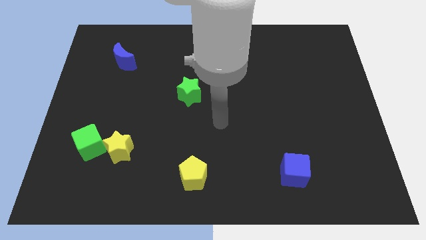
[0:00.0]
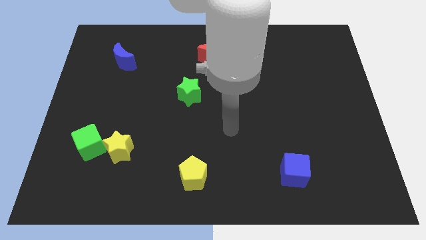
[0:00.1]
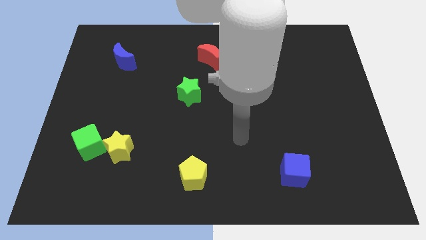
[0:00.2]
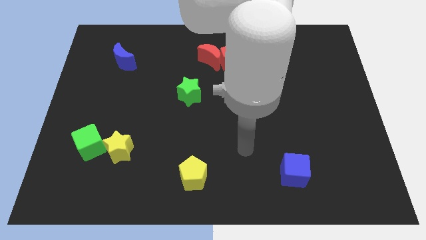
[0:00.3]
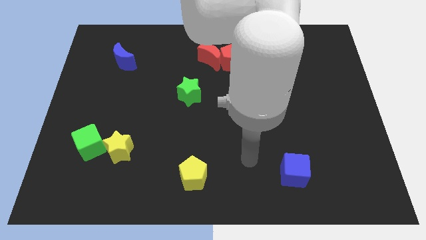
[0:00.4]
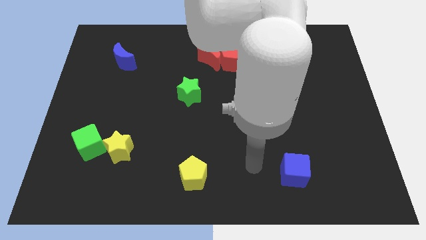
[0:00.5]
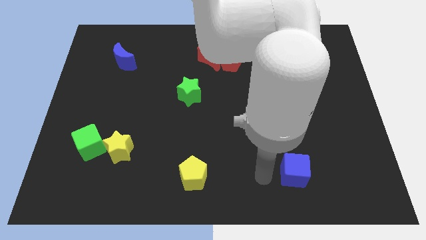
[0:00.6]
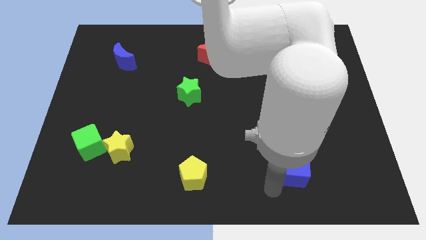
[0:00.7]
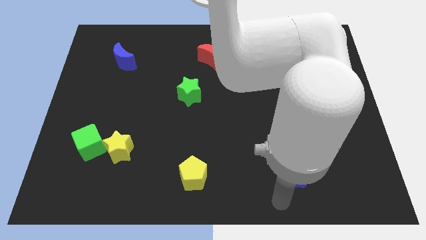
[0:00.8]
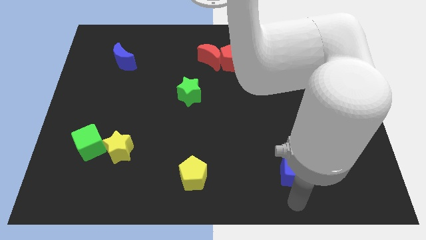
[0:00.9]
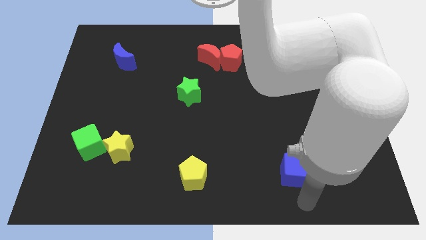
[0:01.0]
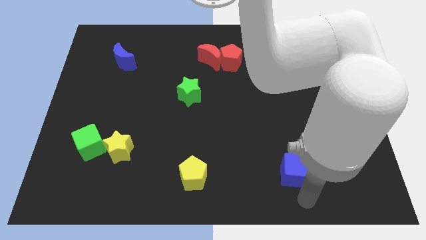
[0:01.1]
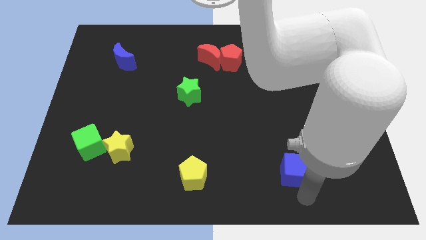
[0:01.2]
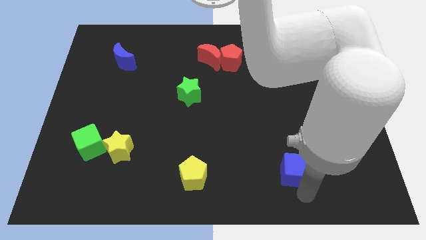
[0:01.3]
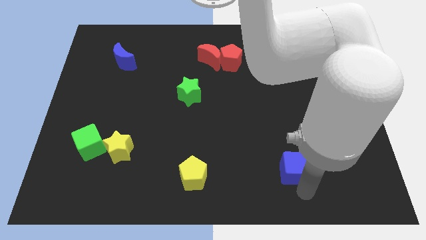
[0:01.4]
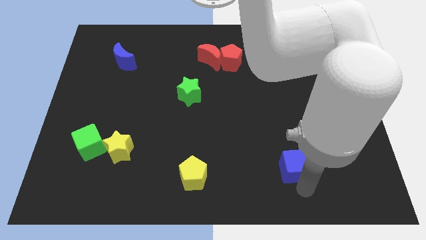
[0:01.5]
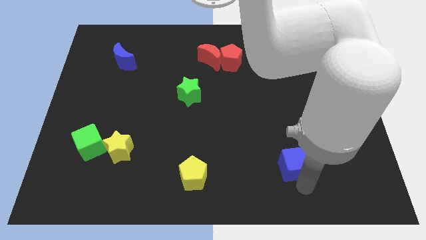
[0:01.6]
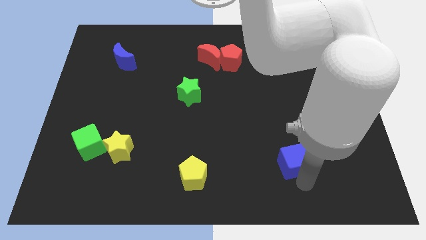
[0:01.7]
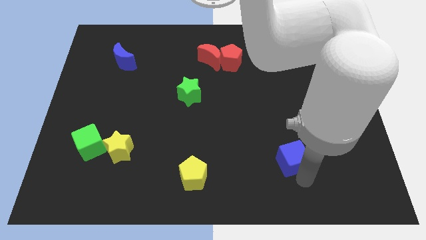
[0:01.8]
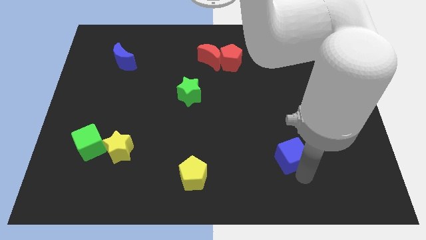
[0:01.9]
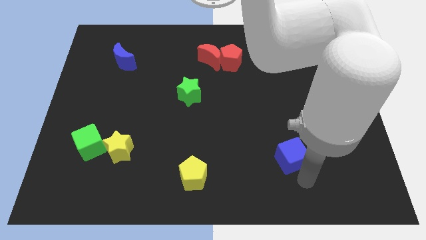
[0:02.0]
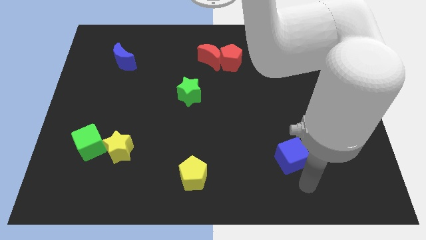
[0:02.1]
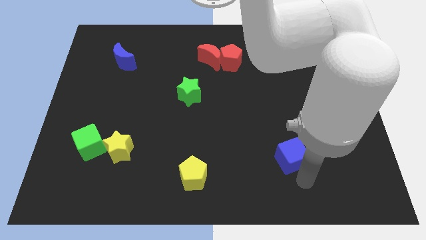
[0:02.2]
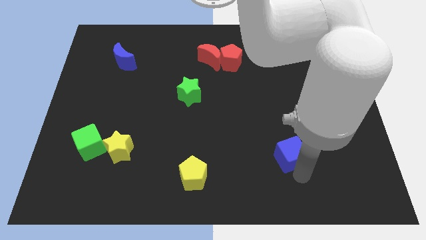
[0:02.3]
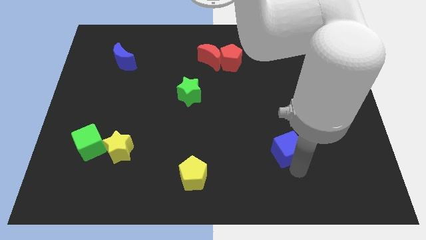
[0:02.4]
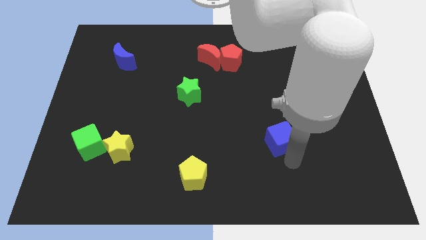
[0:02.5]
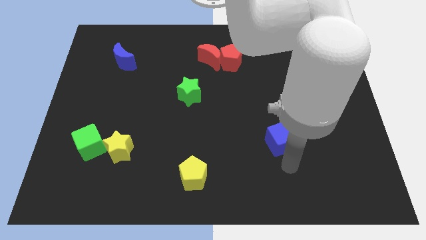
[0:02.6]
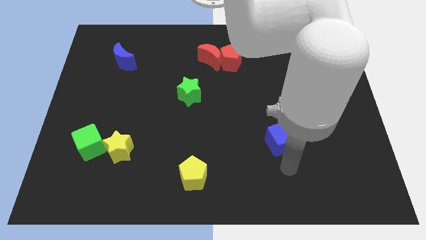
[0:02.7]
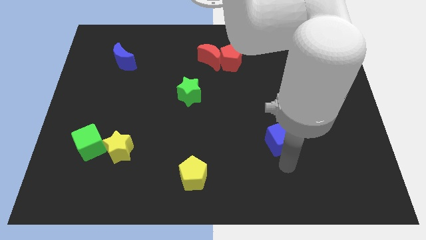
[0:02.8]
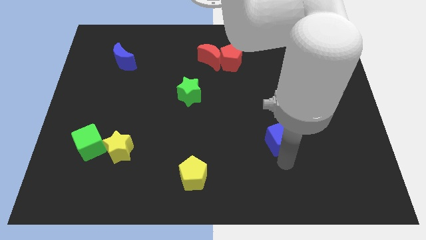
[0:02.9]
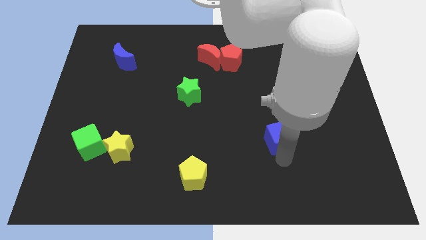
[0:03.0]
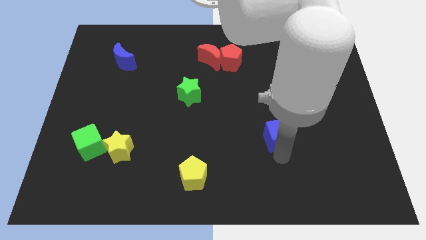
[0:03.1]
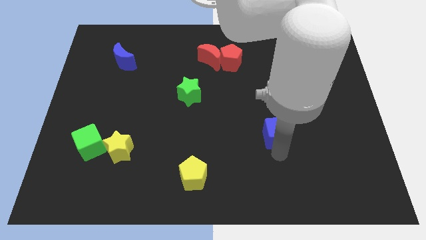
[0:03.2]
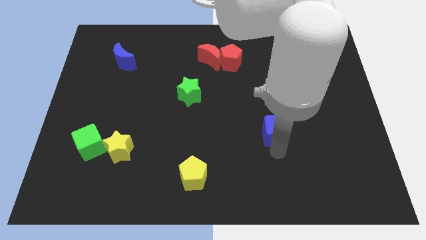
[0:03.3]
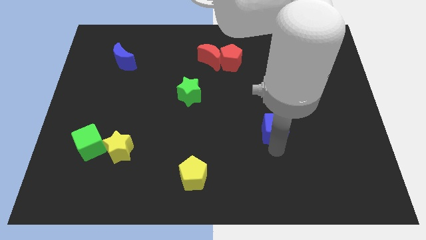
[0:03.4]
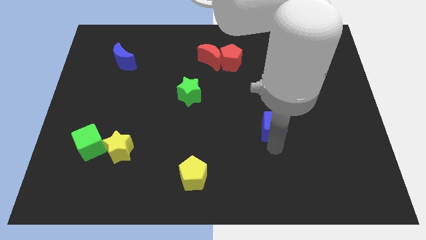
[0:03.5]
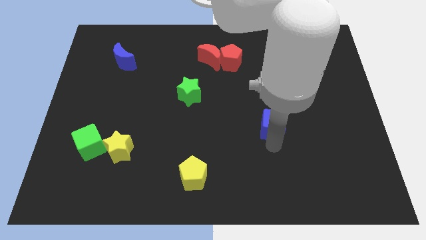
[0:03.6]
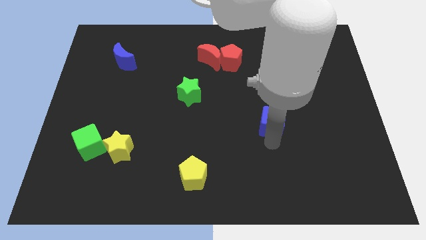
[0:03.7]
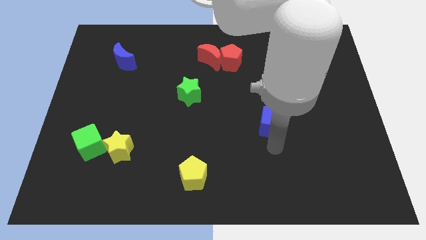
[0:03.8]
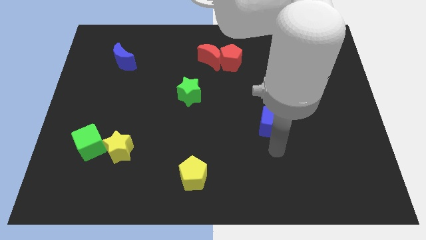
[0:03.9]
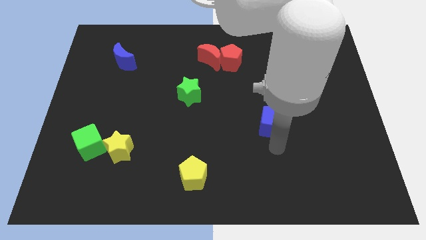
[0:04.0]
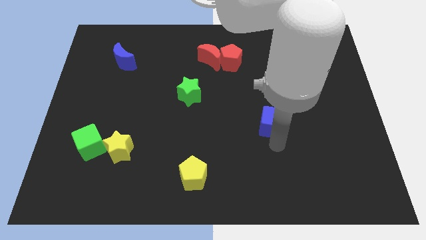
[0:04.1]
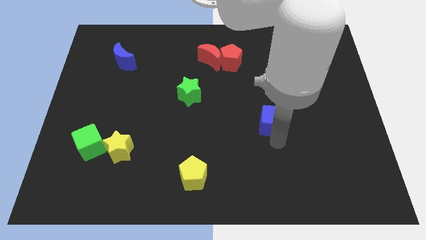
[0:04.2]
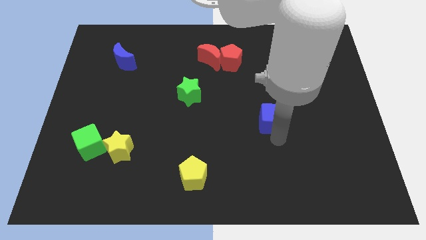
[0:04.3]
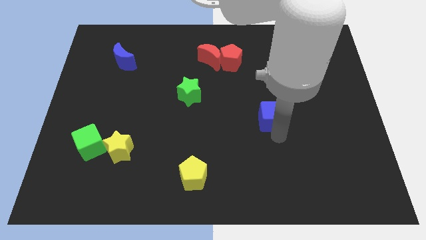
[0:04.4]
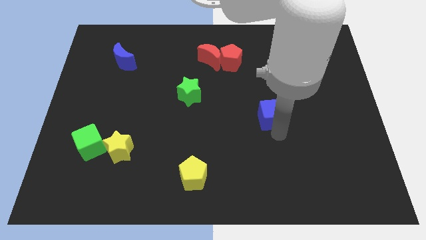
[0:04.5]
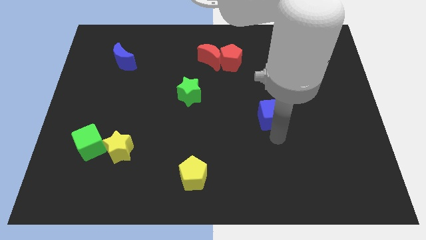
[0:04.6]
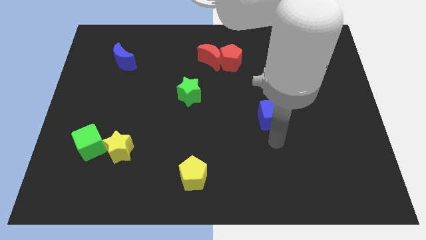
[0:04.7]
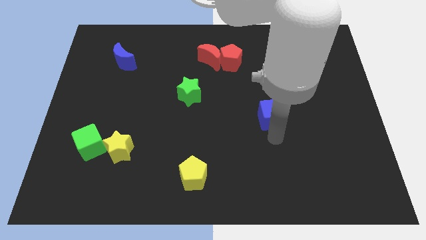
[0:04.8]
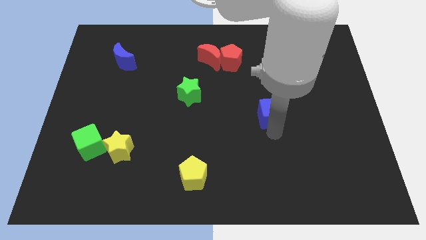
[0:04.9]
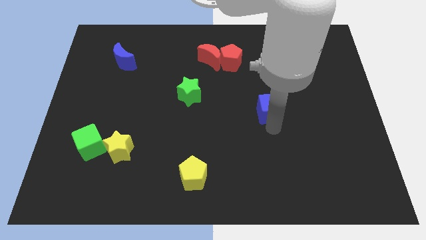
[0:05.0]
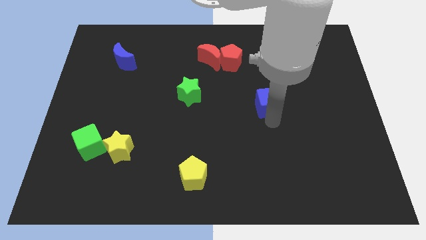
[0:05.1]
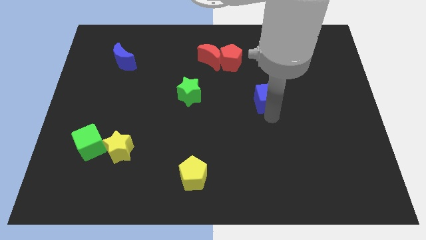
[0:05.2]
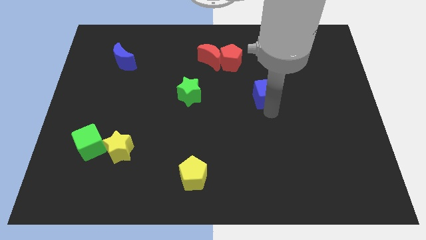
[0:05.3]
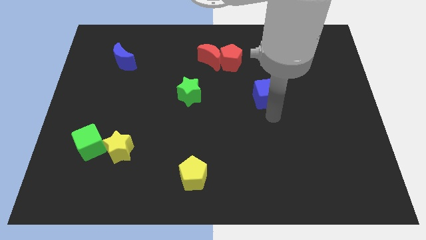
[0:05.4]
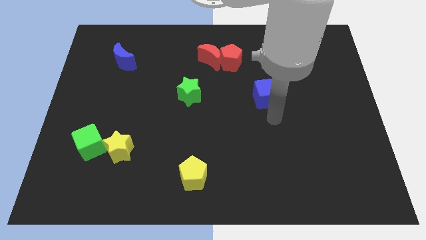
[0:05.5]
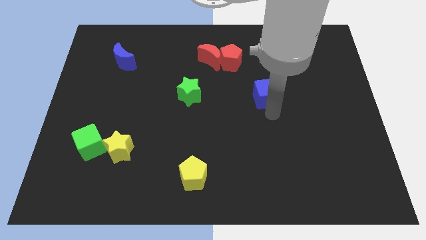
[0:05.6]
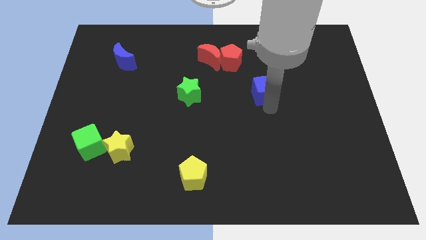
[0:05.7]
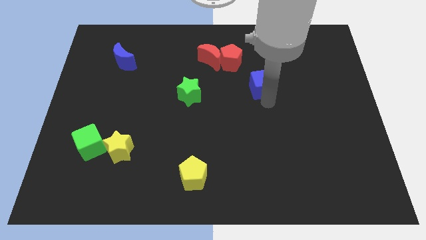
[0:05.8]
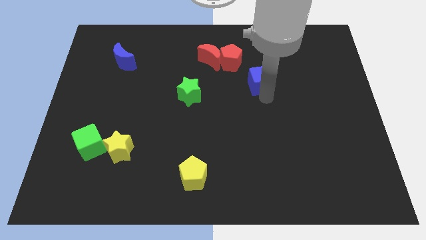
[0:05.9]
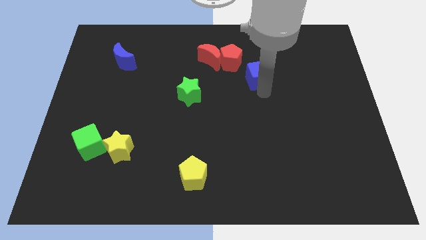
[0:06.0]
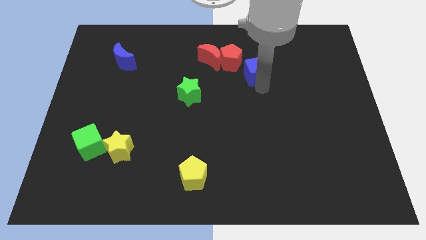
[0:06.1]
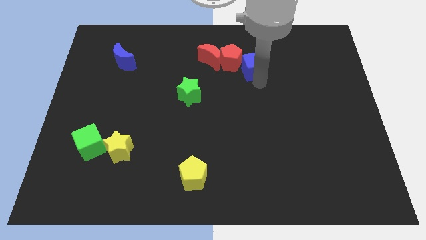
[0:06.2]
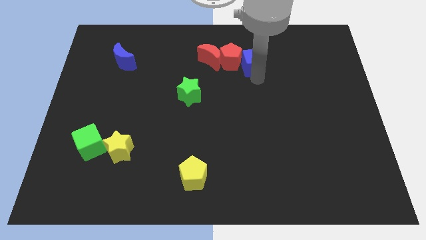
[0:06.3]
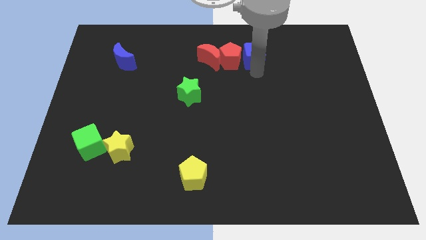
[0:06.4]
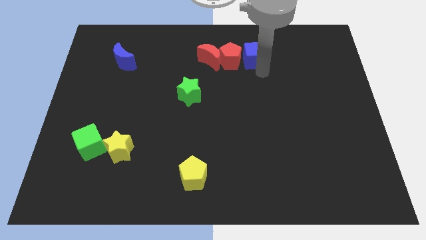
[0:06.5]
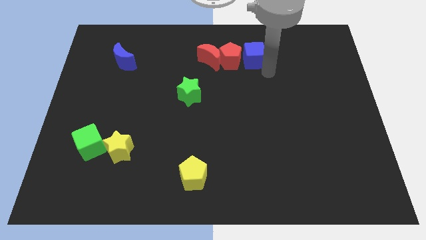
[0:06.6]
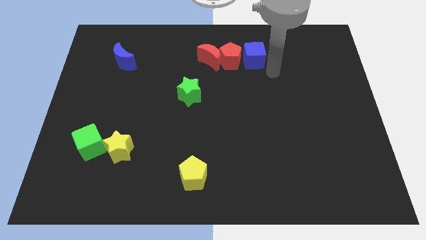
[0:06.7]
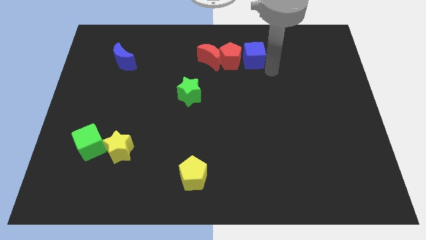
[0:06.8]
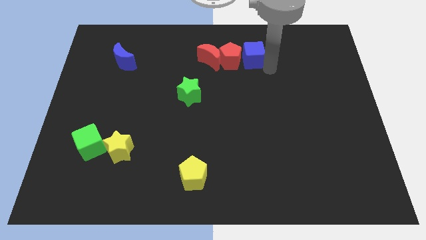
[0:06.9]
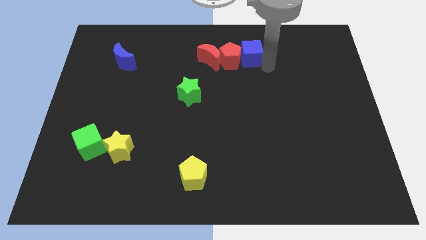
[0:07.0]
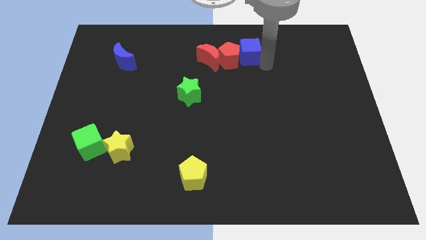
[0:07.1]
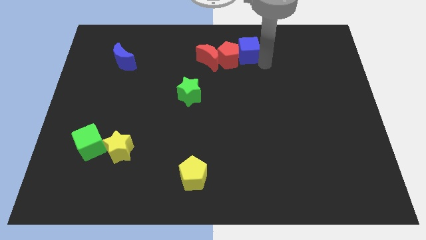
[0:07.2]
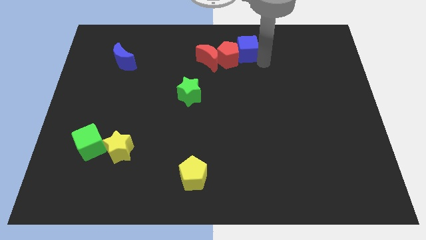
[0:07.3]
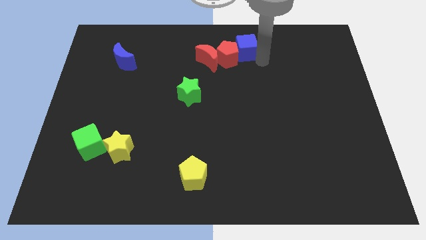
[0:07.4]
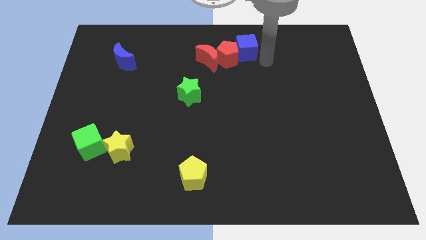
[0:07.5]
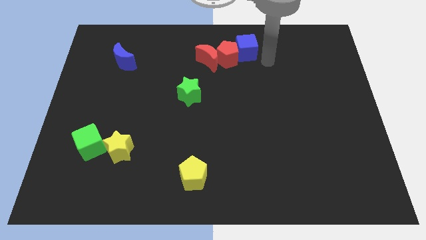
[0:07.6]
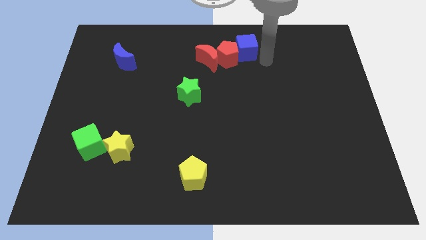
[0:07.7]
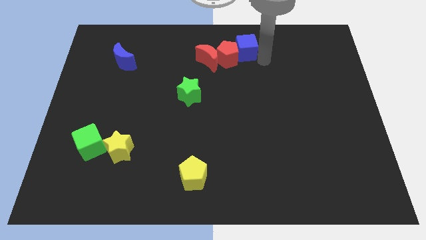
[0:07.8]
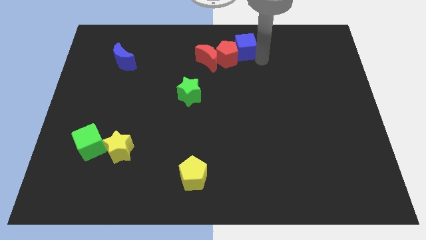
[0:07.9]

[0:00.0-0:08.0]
move the blue cube to the towards your base

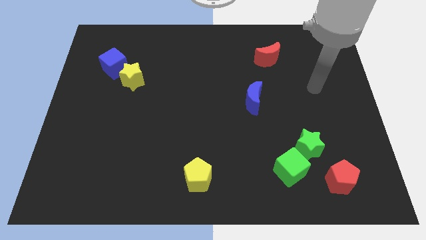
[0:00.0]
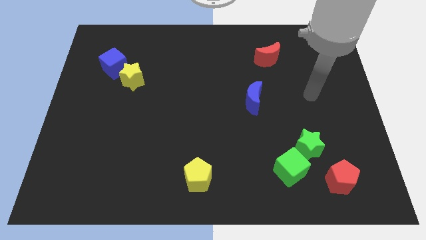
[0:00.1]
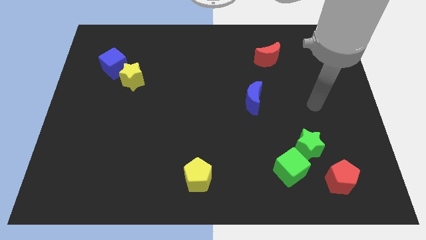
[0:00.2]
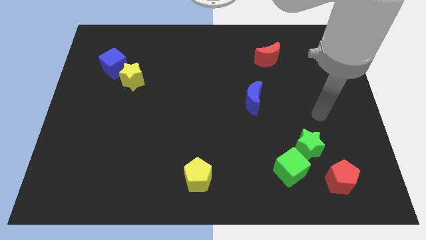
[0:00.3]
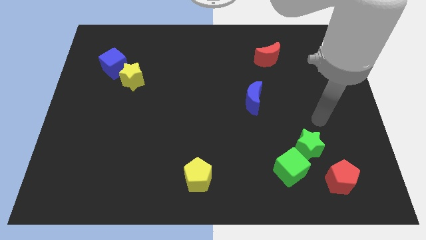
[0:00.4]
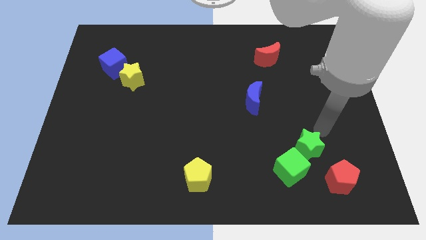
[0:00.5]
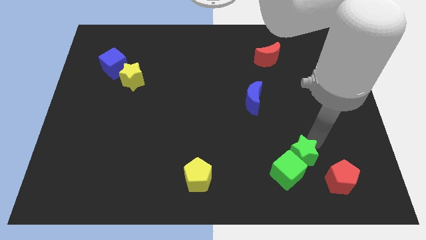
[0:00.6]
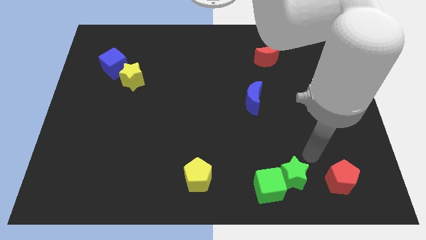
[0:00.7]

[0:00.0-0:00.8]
slide the green cube to the bottom side
